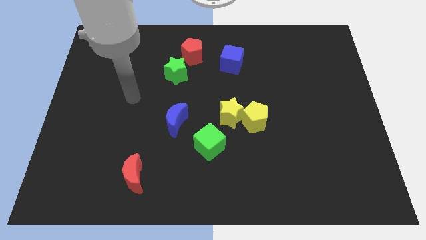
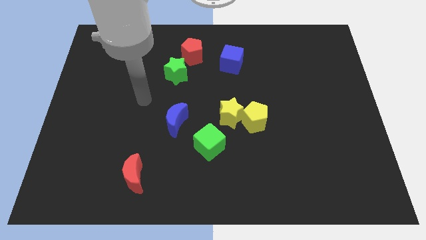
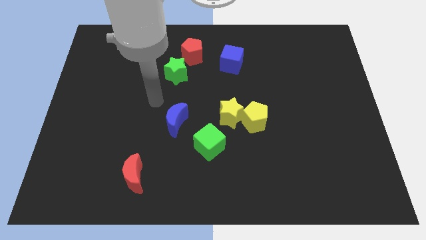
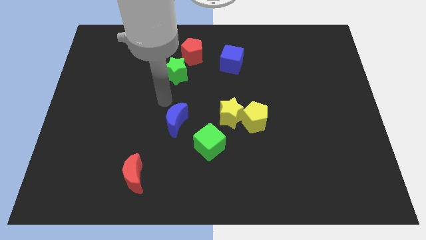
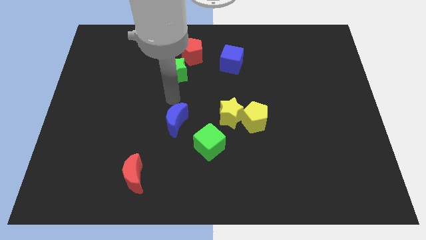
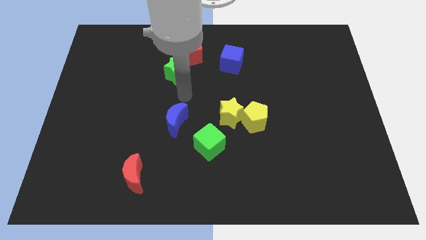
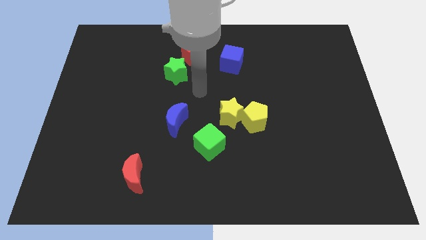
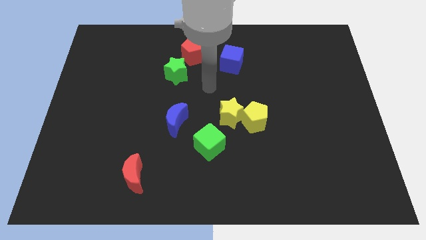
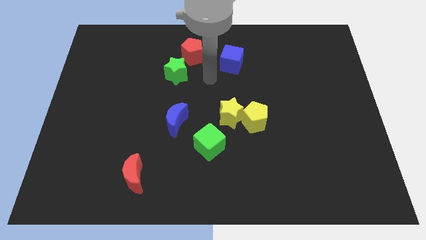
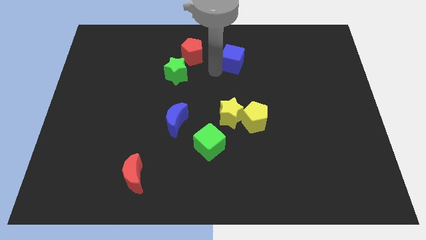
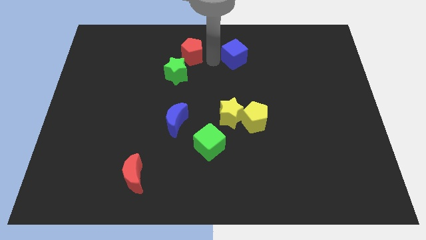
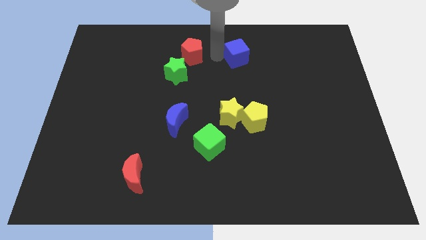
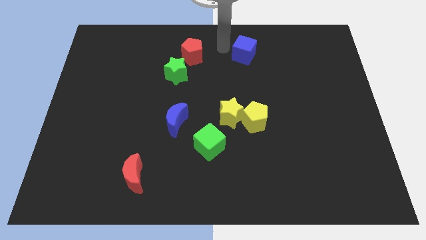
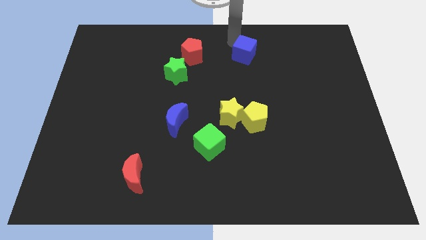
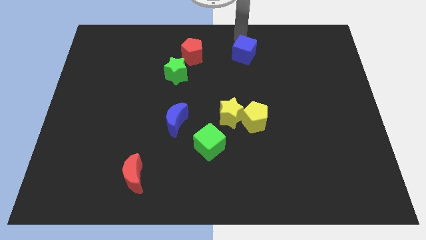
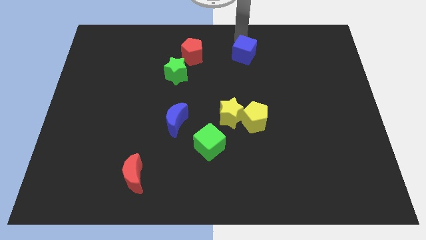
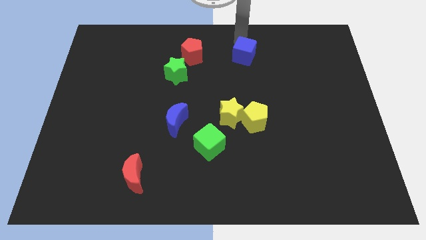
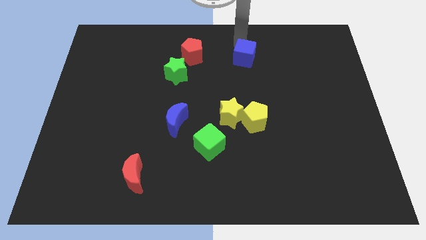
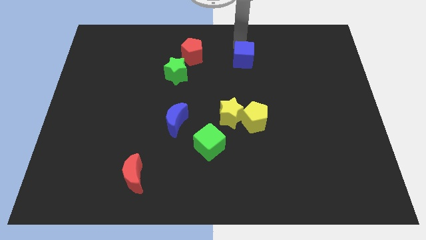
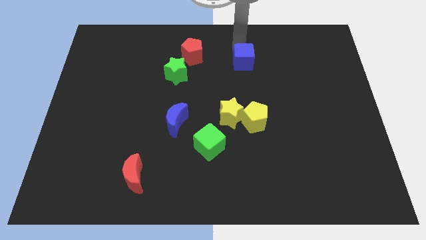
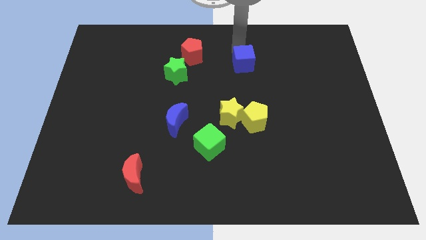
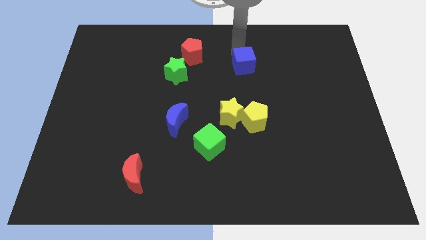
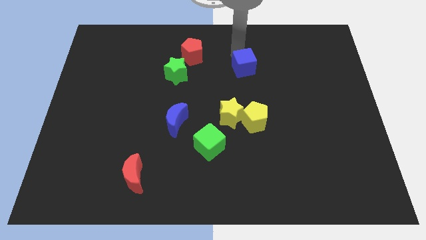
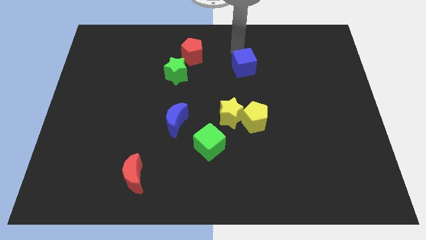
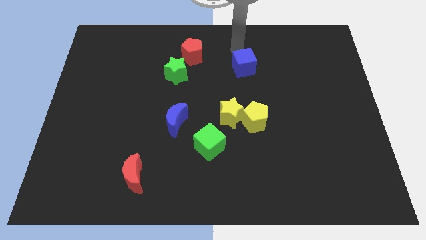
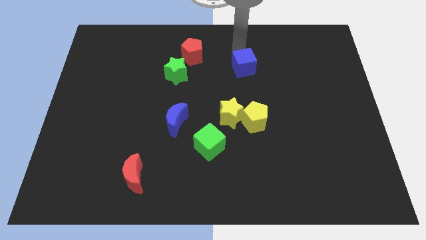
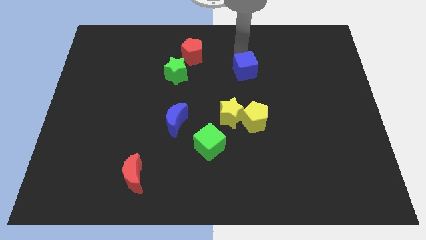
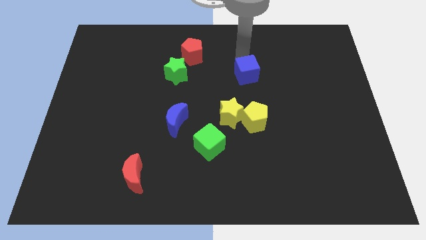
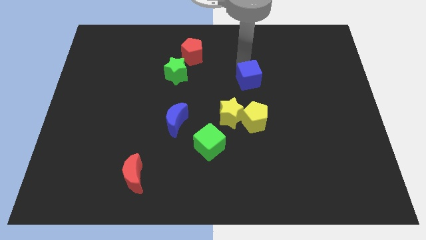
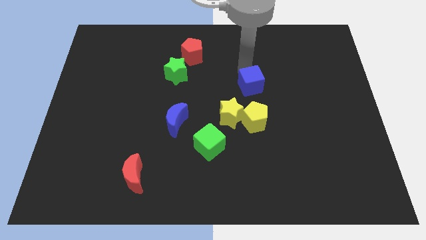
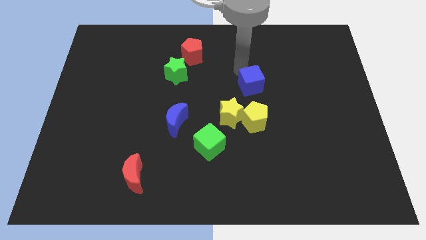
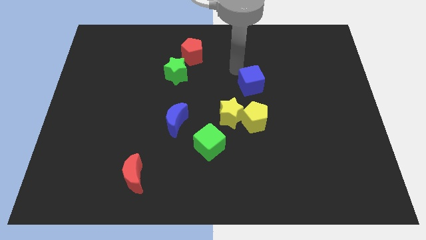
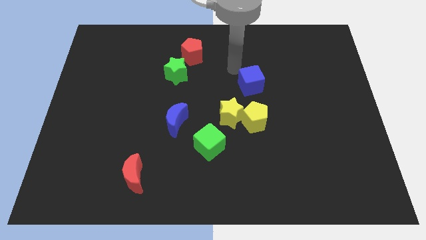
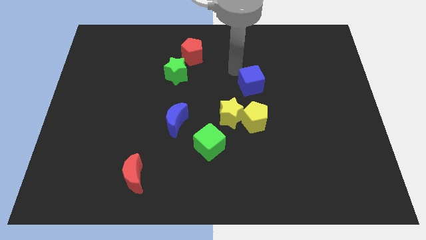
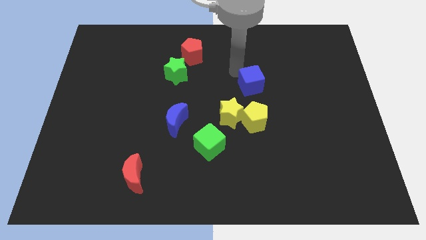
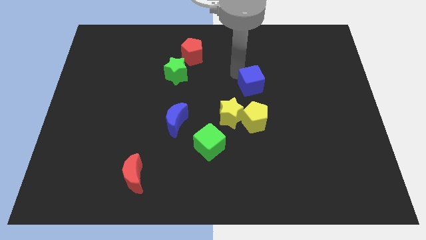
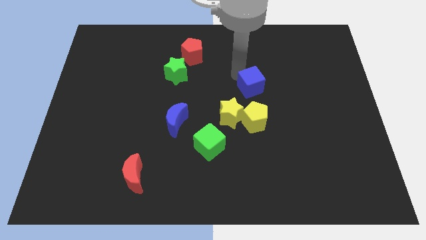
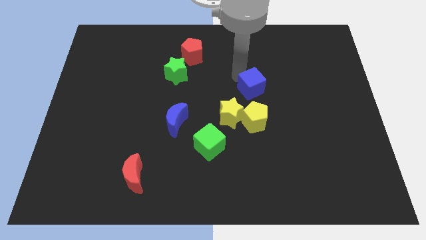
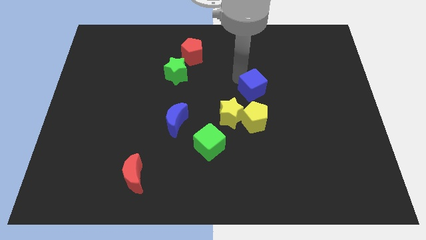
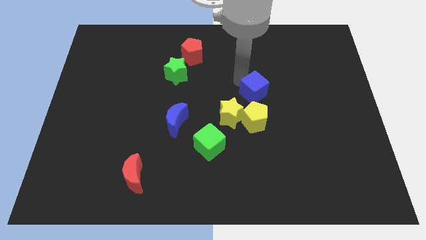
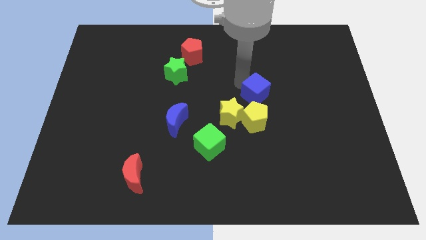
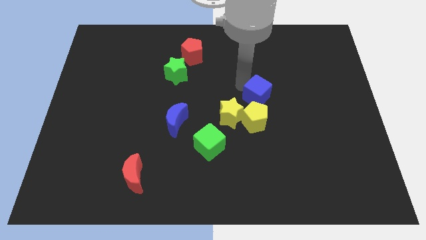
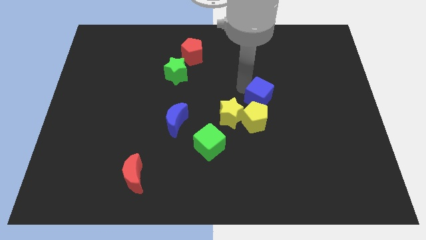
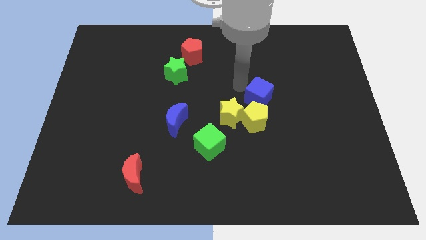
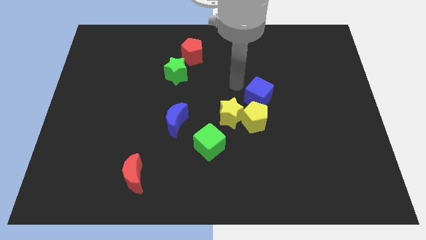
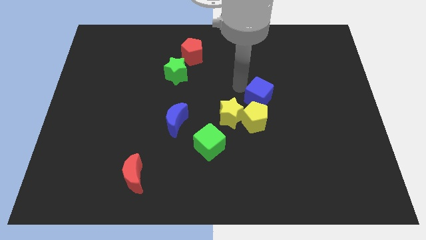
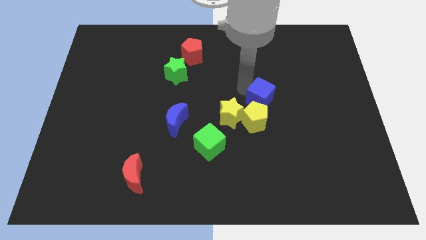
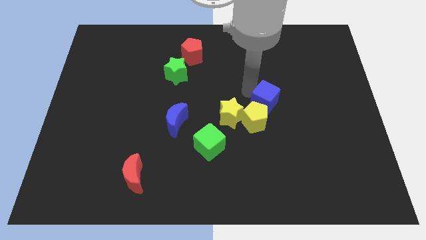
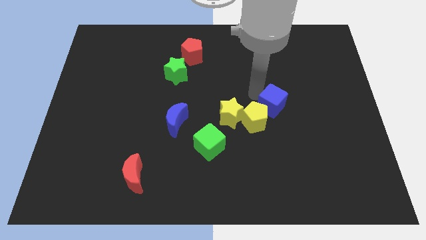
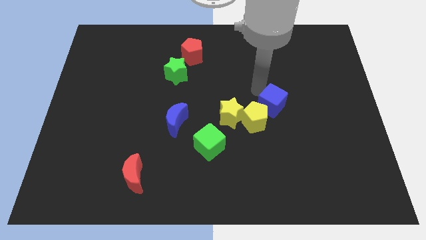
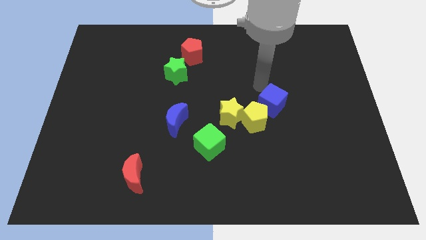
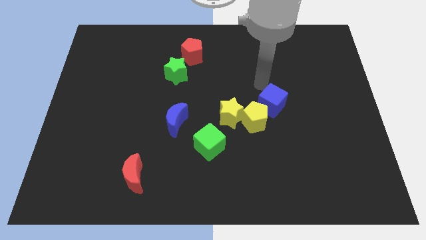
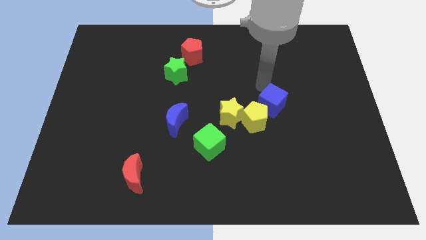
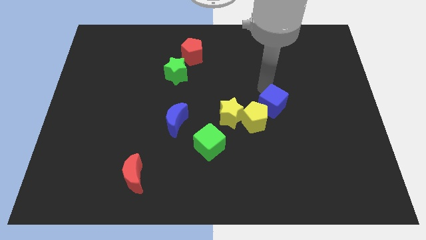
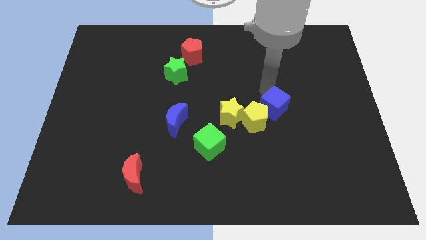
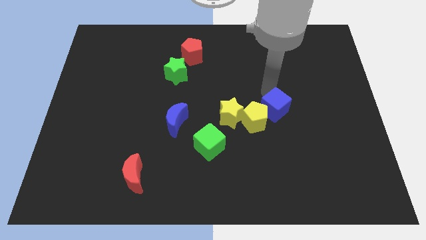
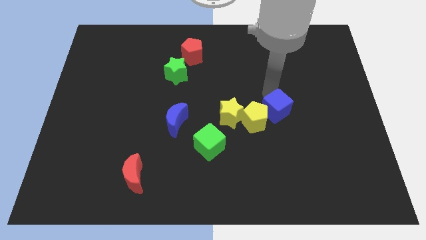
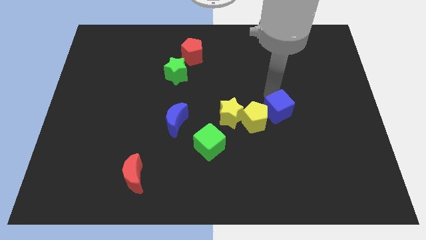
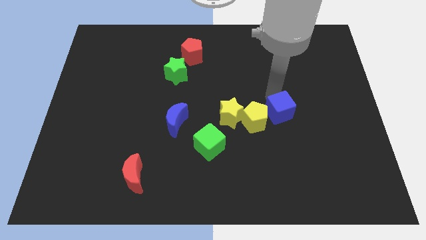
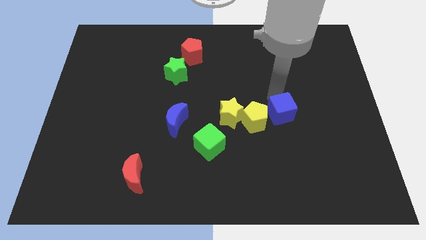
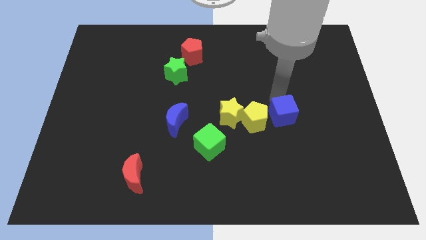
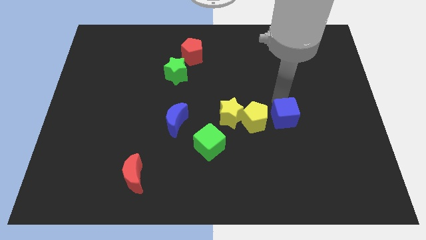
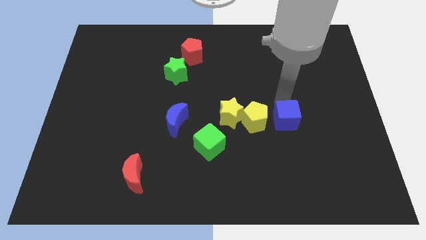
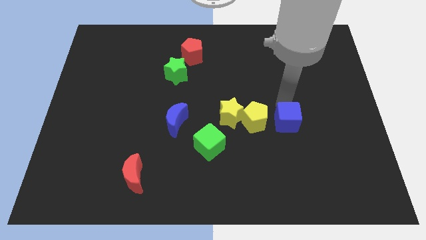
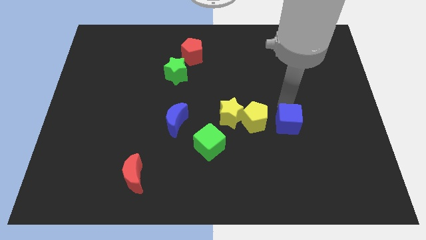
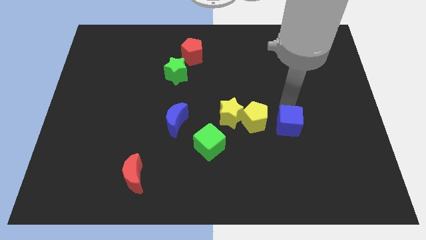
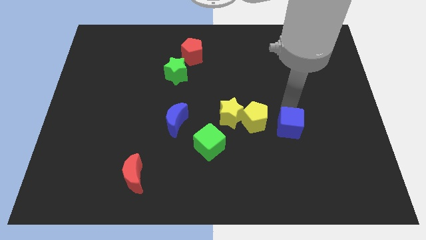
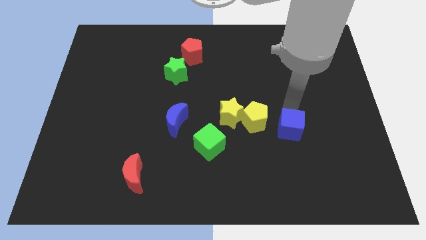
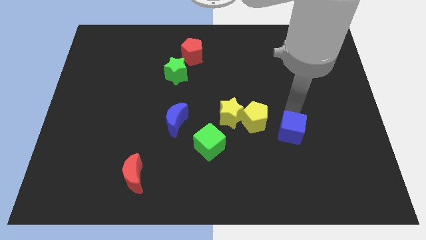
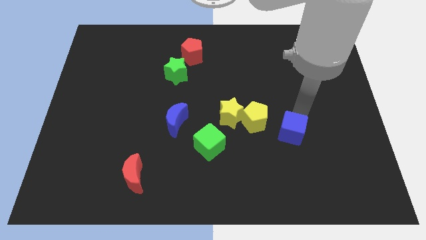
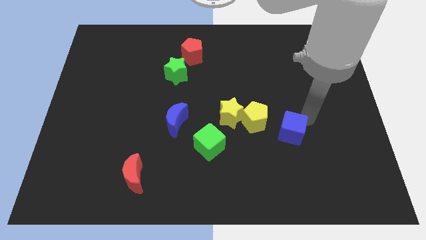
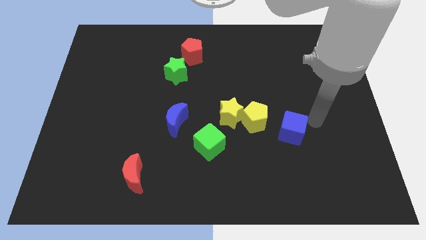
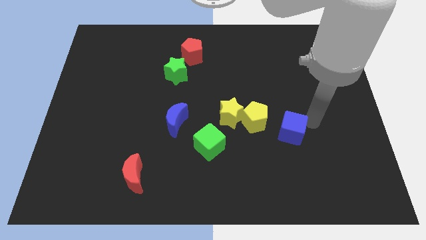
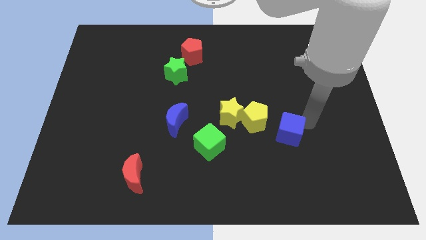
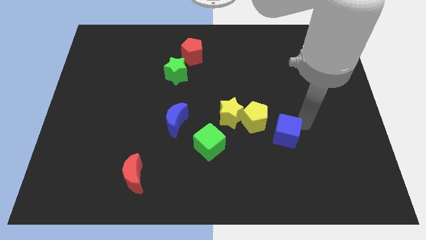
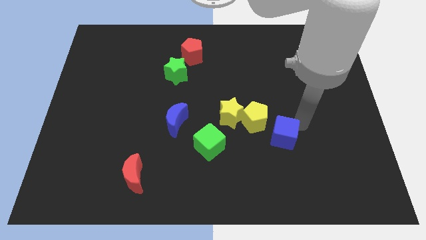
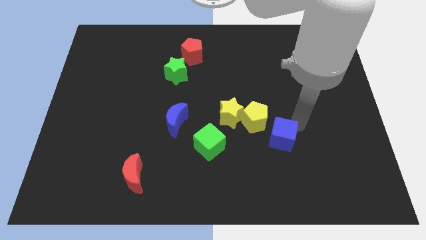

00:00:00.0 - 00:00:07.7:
move the blue cube to the right of the green cube
